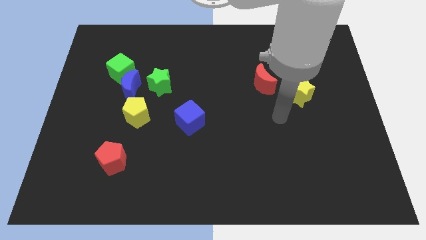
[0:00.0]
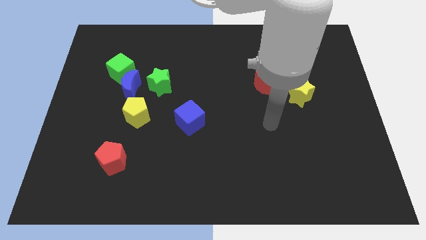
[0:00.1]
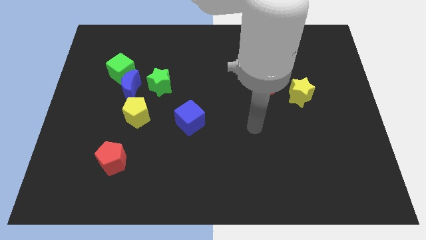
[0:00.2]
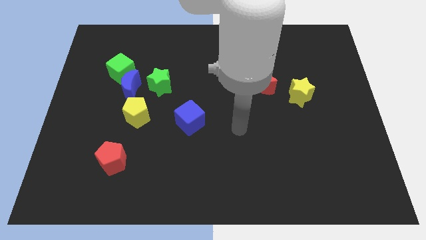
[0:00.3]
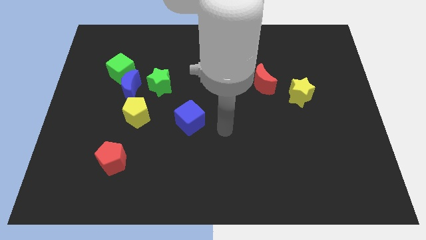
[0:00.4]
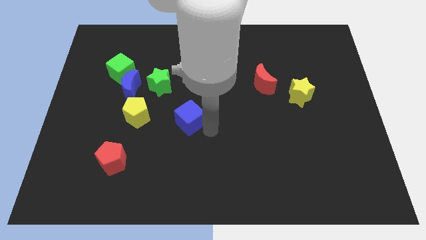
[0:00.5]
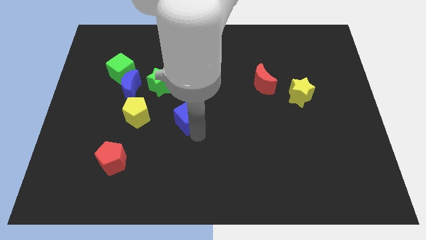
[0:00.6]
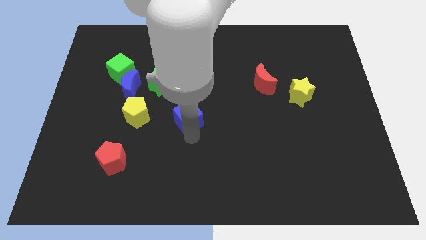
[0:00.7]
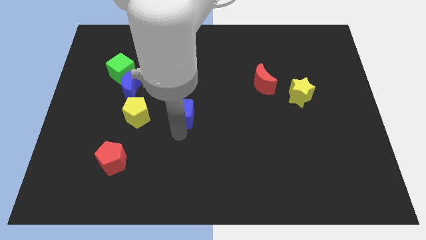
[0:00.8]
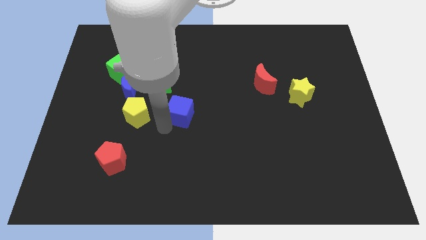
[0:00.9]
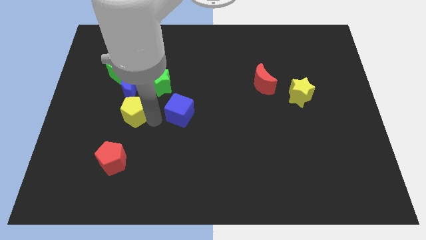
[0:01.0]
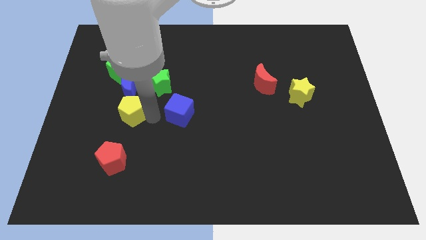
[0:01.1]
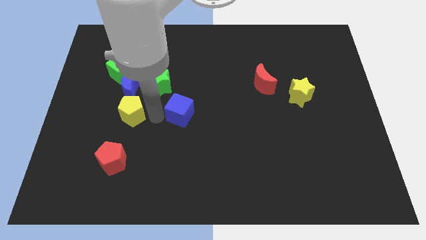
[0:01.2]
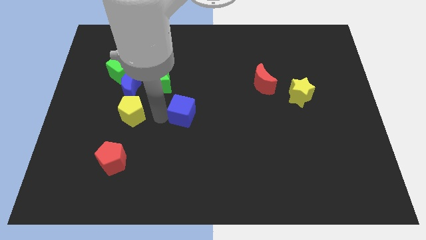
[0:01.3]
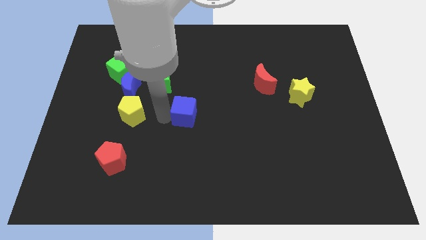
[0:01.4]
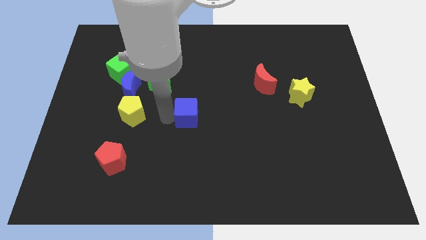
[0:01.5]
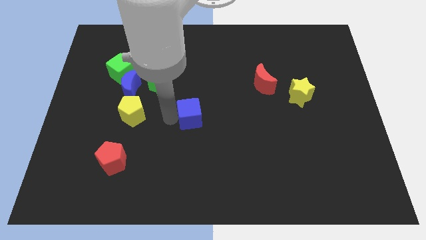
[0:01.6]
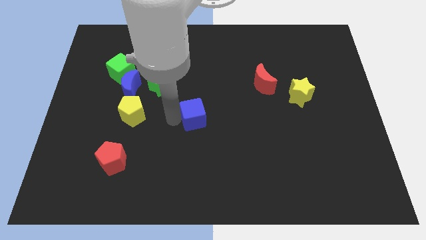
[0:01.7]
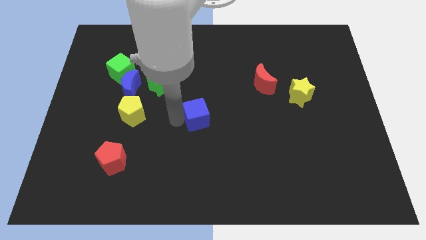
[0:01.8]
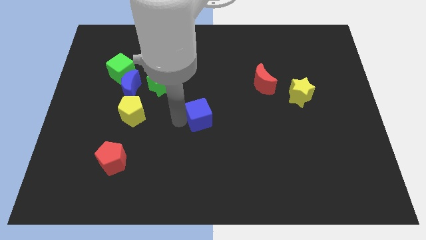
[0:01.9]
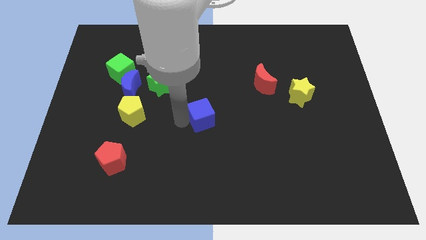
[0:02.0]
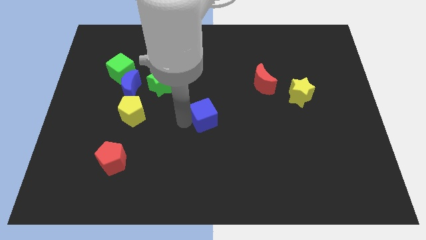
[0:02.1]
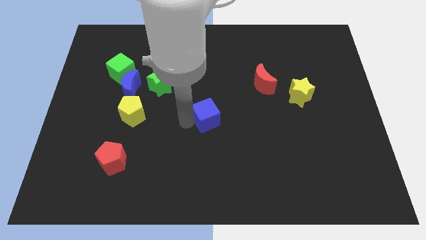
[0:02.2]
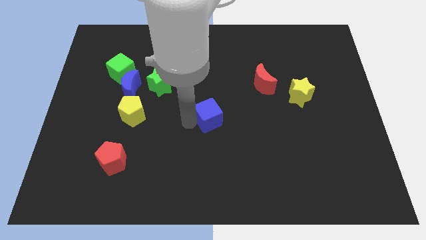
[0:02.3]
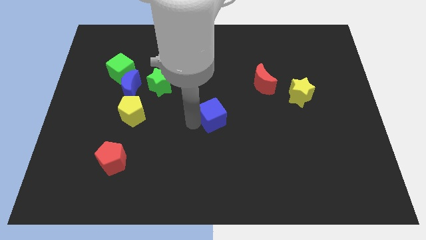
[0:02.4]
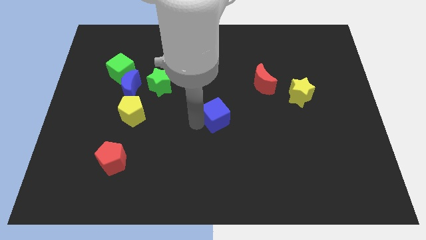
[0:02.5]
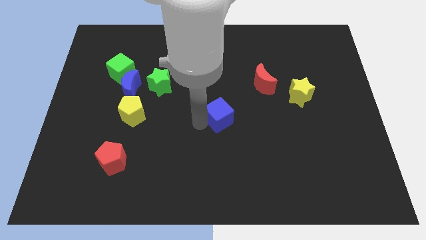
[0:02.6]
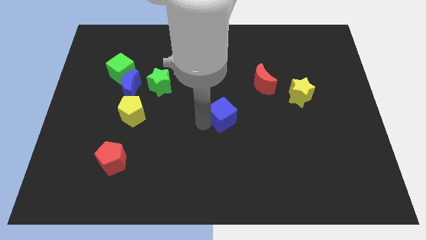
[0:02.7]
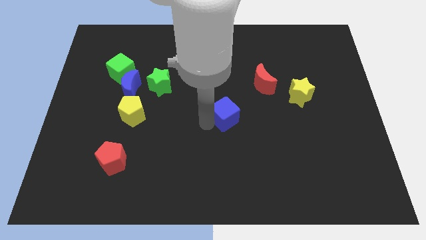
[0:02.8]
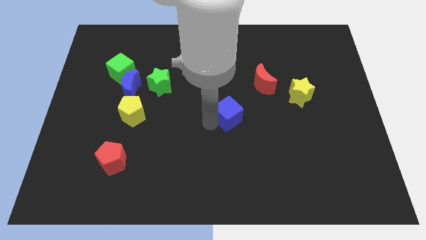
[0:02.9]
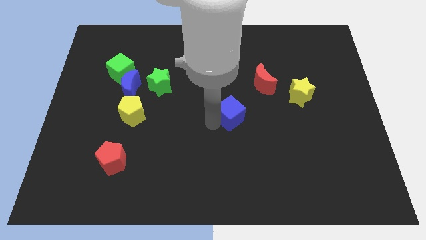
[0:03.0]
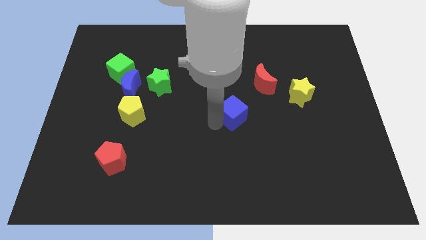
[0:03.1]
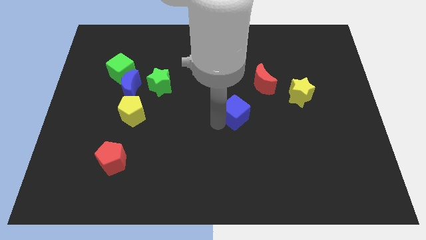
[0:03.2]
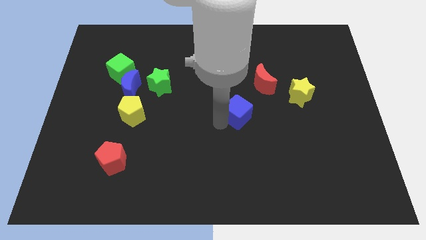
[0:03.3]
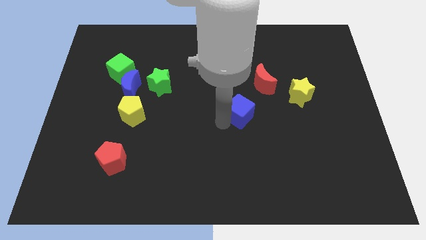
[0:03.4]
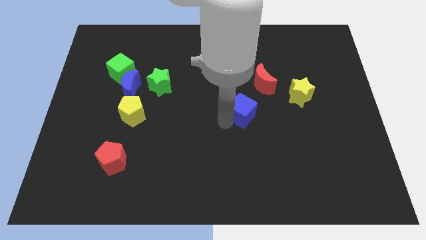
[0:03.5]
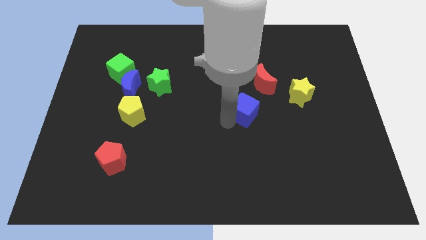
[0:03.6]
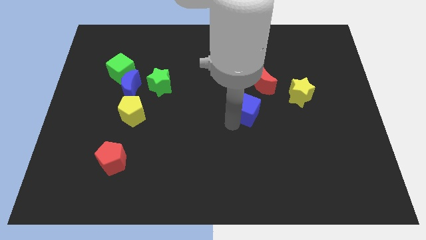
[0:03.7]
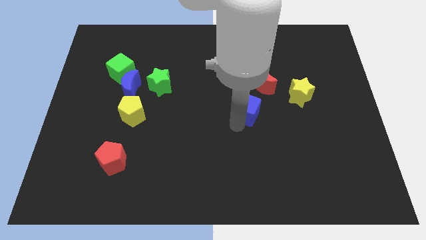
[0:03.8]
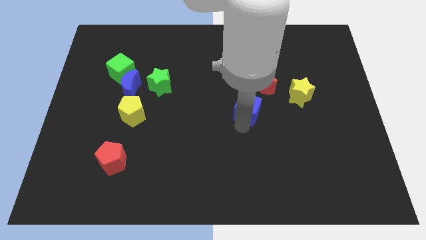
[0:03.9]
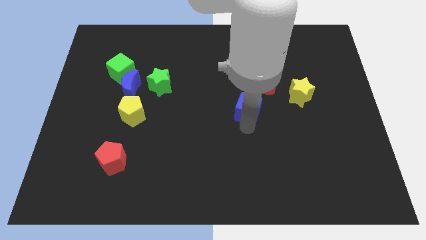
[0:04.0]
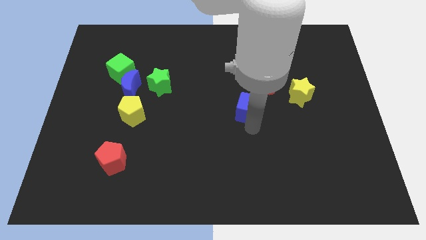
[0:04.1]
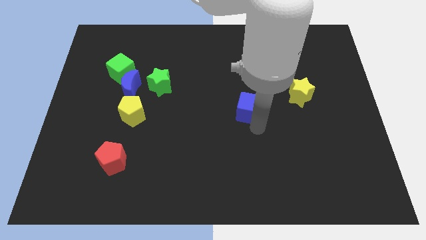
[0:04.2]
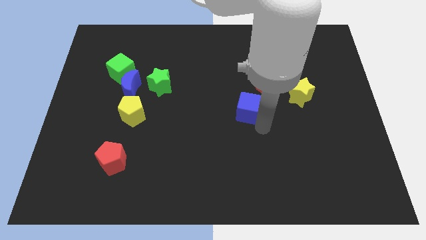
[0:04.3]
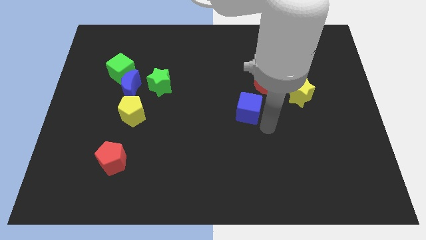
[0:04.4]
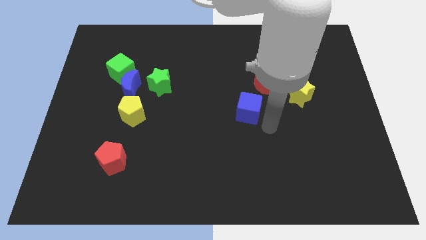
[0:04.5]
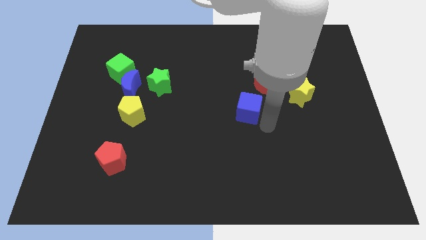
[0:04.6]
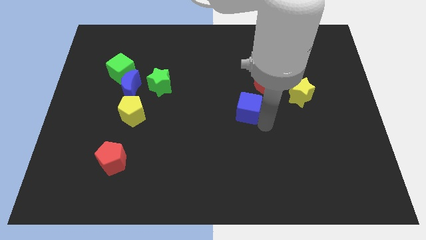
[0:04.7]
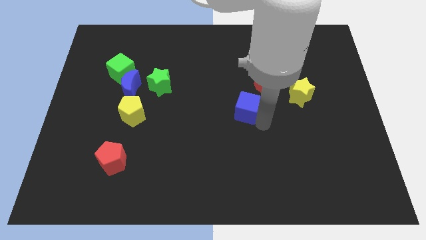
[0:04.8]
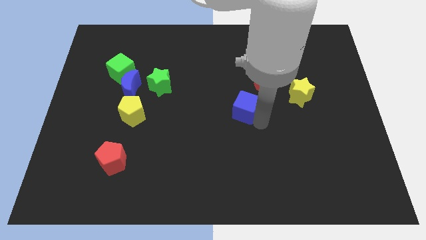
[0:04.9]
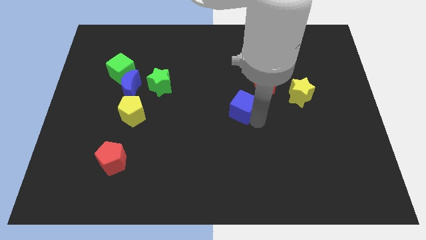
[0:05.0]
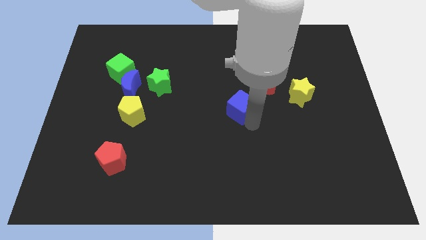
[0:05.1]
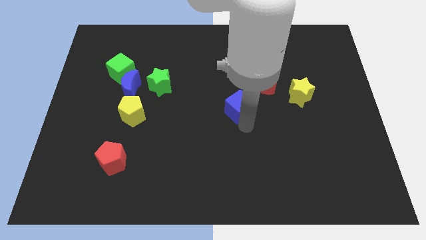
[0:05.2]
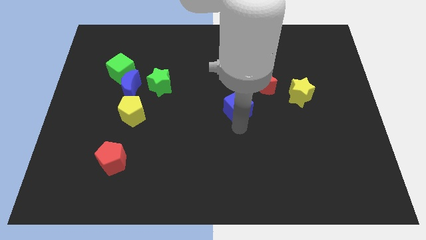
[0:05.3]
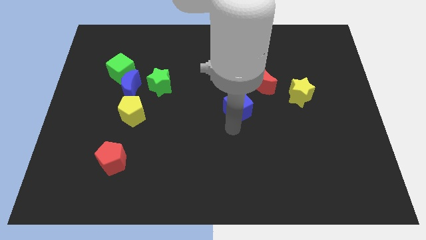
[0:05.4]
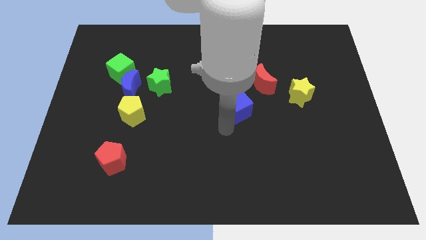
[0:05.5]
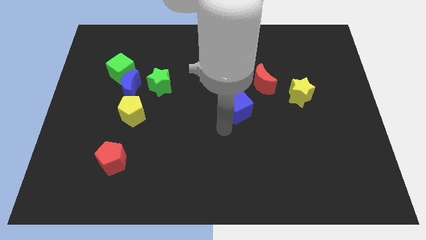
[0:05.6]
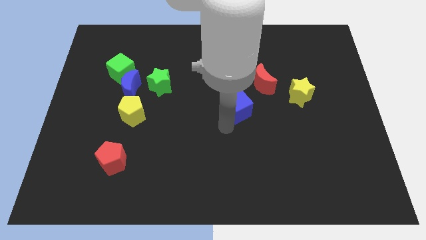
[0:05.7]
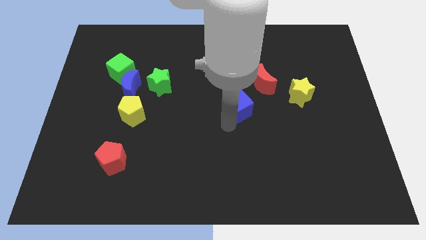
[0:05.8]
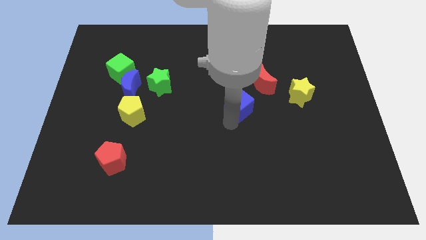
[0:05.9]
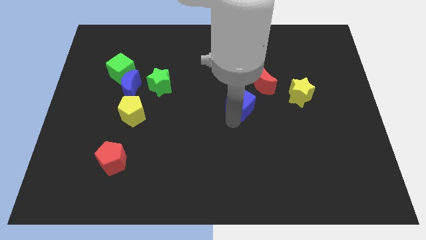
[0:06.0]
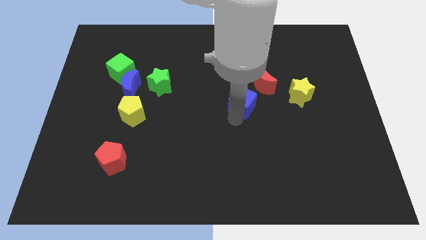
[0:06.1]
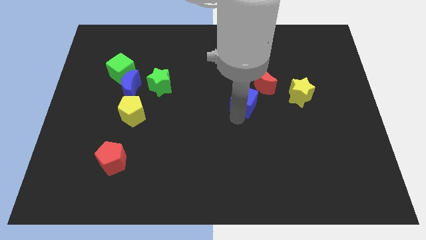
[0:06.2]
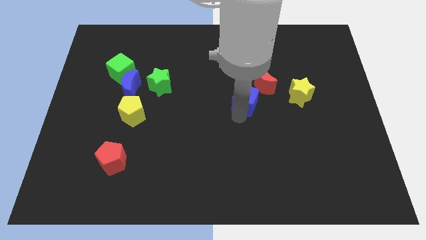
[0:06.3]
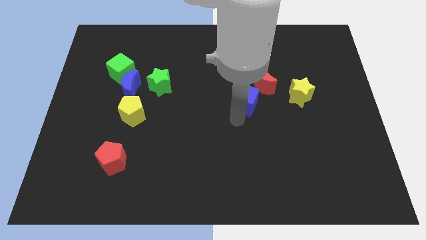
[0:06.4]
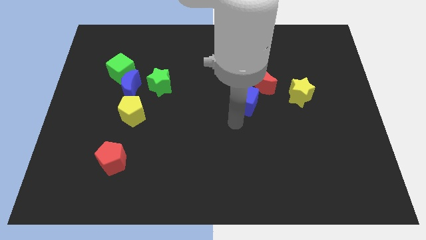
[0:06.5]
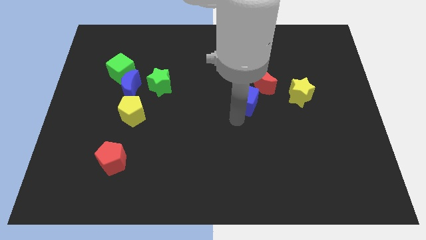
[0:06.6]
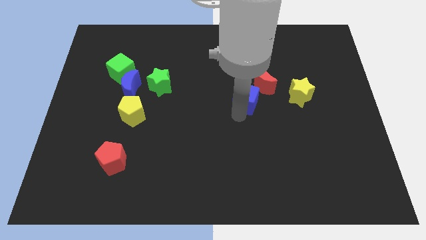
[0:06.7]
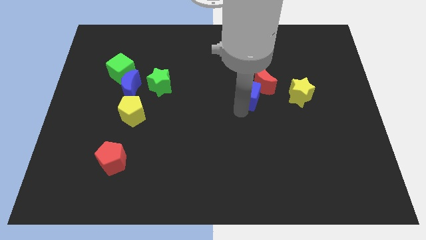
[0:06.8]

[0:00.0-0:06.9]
move the blue cube to the red moon
